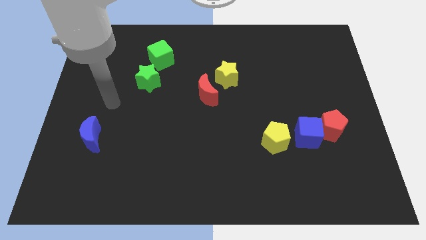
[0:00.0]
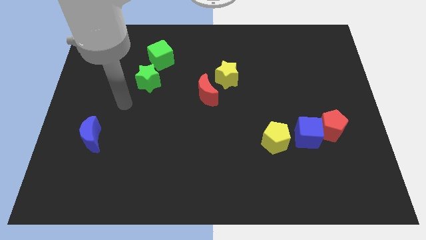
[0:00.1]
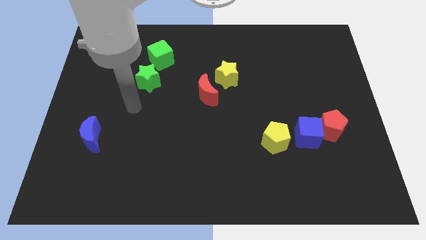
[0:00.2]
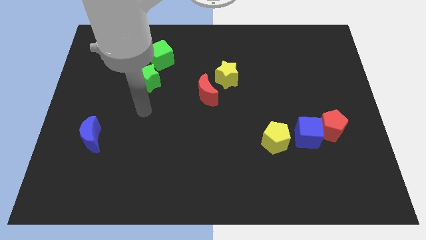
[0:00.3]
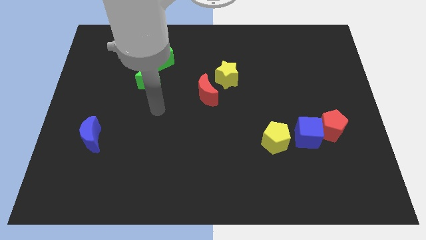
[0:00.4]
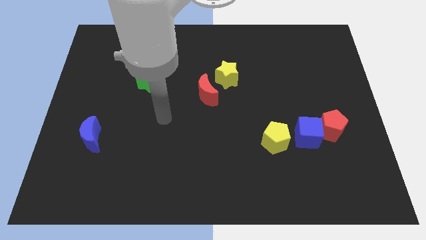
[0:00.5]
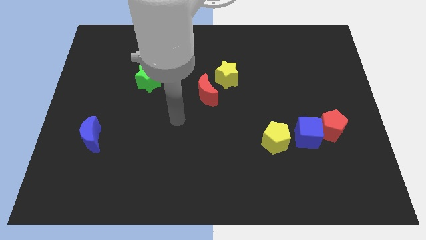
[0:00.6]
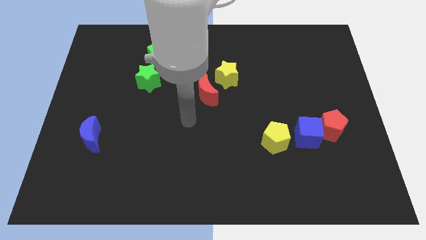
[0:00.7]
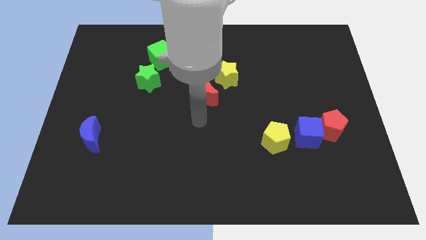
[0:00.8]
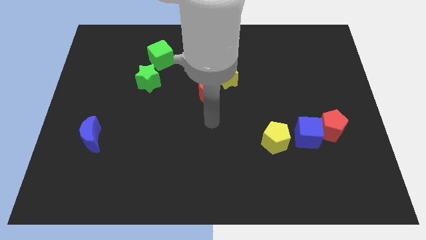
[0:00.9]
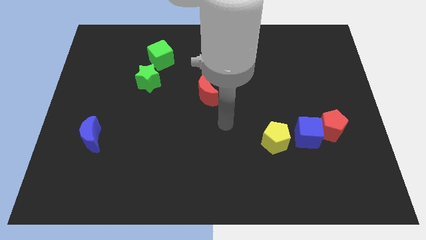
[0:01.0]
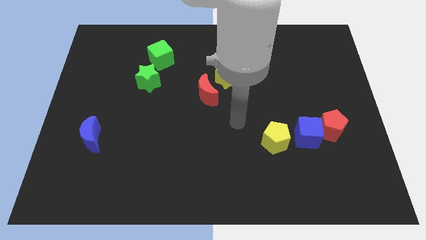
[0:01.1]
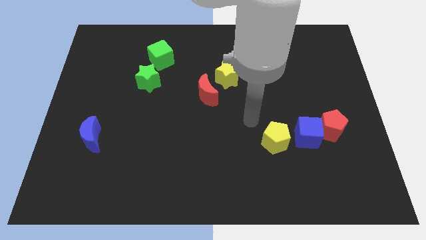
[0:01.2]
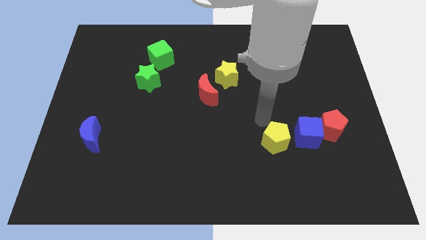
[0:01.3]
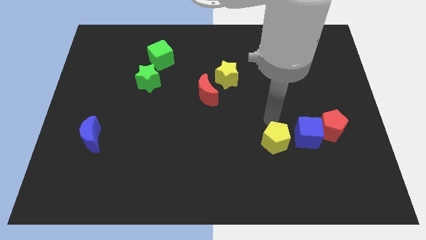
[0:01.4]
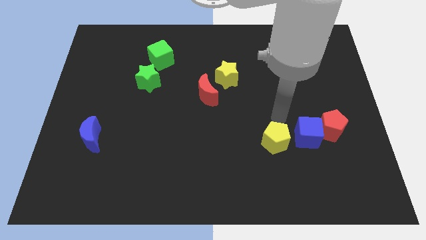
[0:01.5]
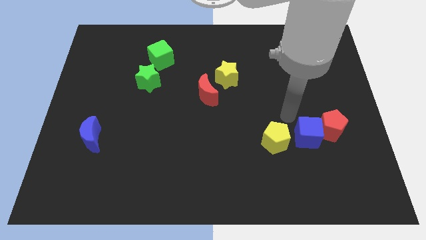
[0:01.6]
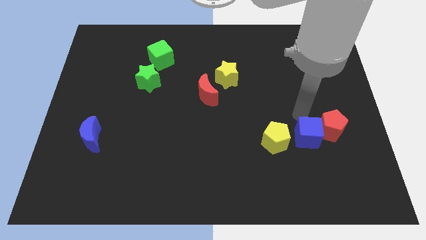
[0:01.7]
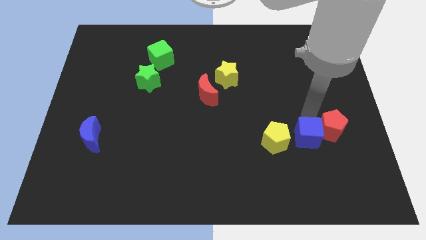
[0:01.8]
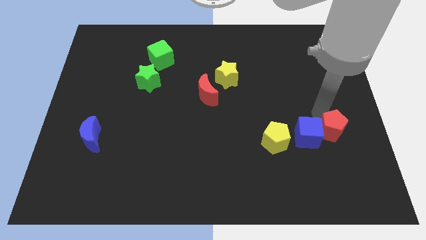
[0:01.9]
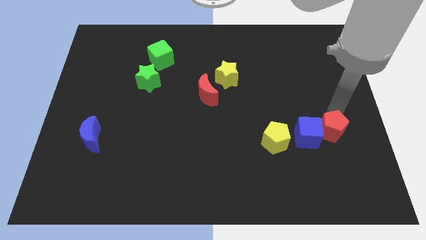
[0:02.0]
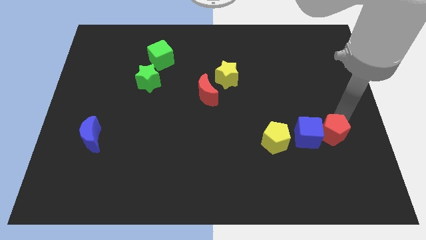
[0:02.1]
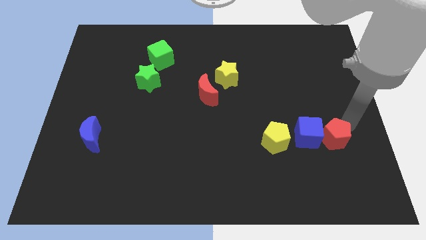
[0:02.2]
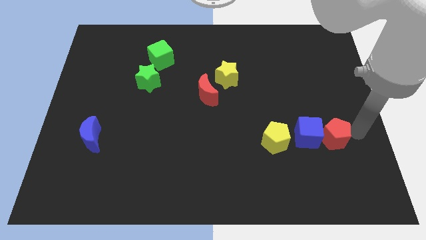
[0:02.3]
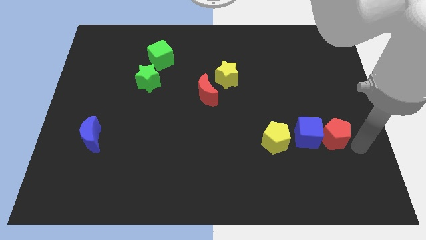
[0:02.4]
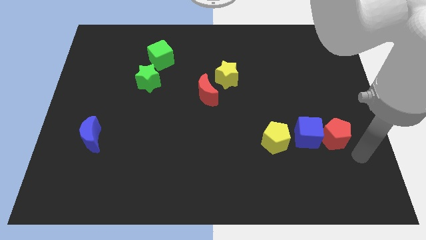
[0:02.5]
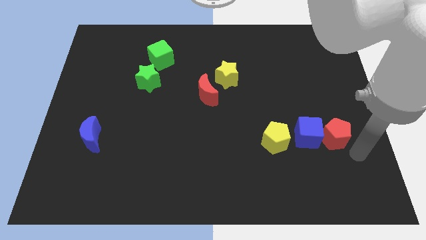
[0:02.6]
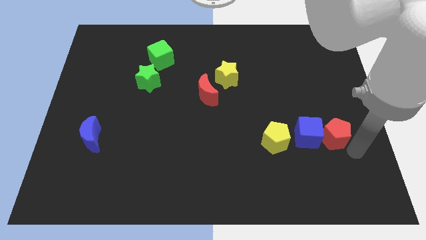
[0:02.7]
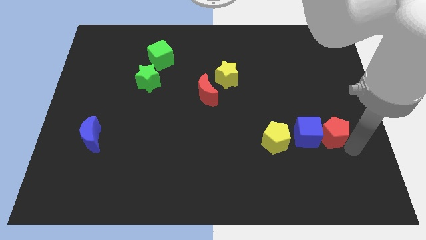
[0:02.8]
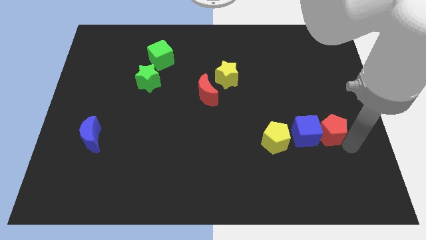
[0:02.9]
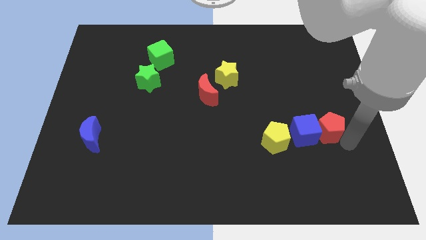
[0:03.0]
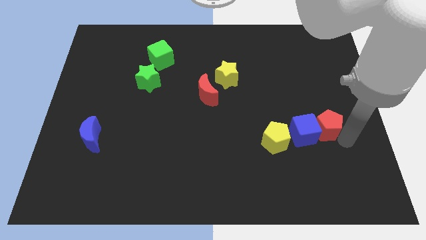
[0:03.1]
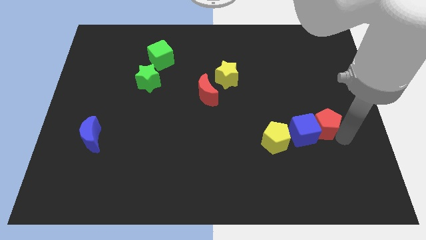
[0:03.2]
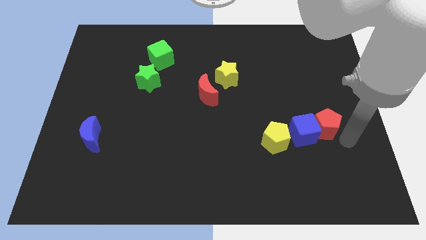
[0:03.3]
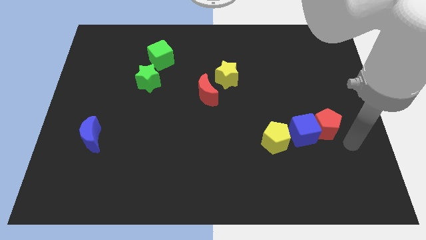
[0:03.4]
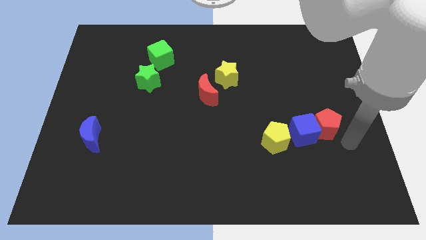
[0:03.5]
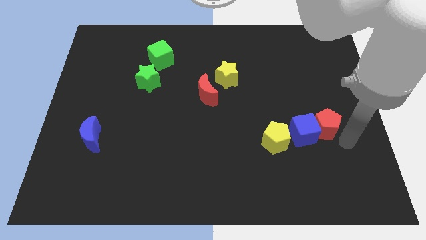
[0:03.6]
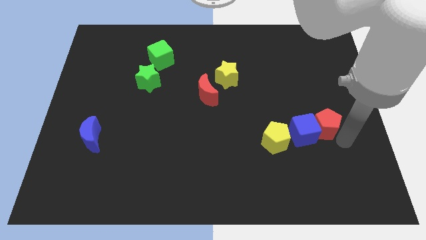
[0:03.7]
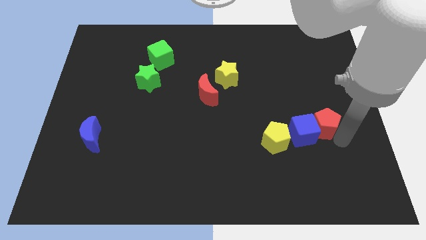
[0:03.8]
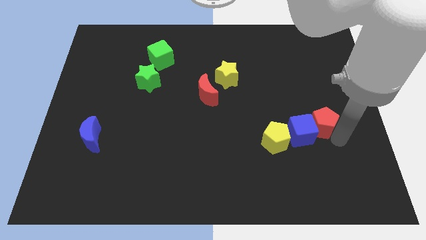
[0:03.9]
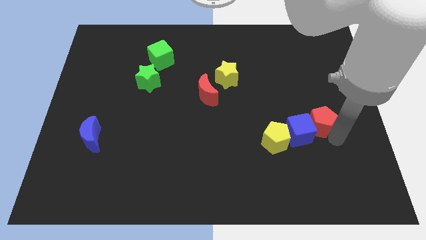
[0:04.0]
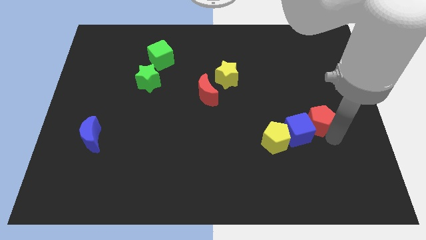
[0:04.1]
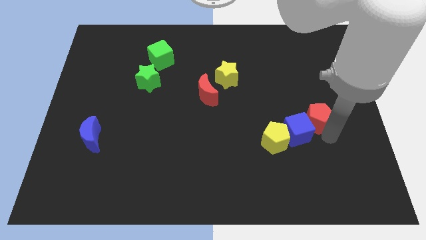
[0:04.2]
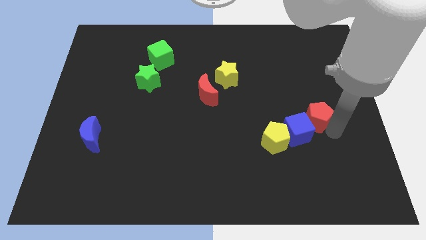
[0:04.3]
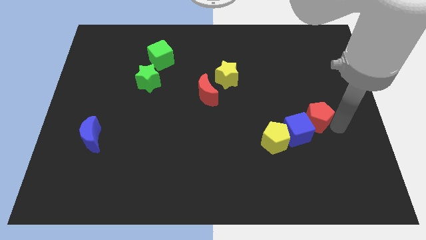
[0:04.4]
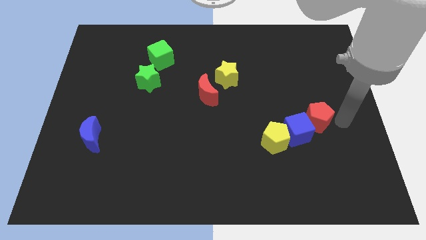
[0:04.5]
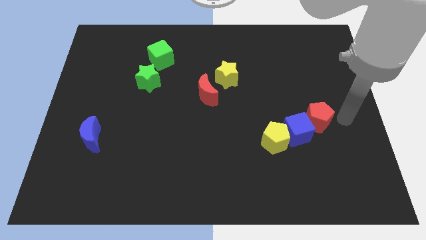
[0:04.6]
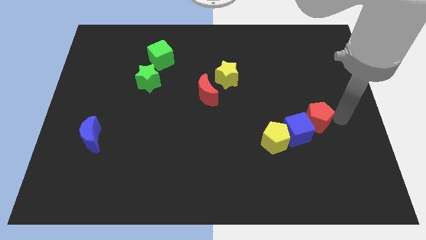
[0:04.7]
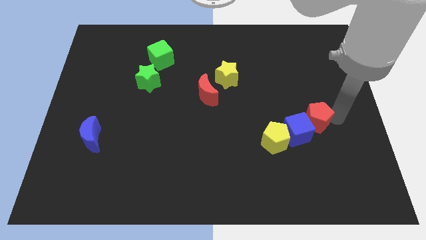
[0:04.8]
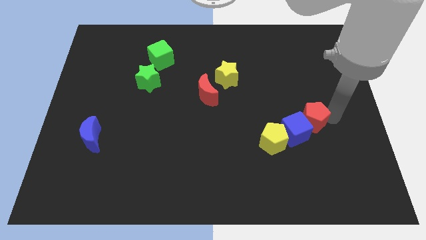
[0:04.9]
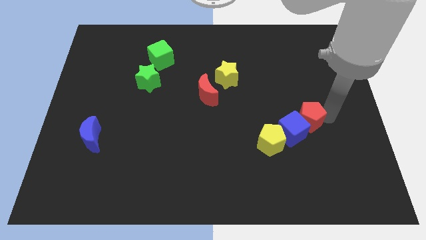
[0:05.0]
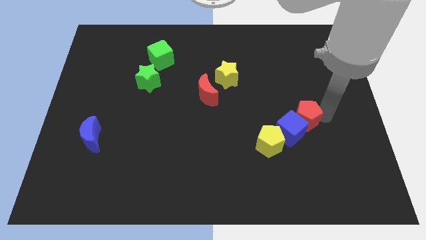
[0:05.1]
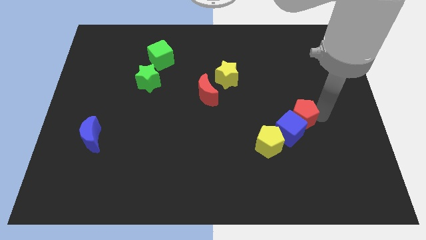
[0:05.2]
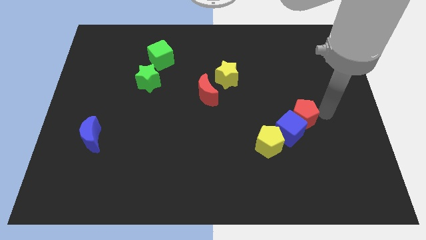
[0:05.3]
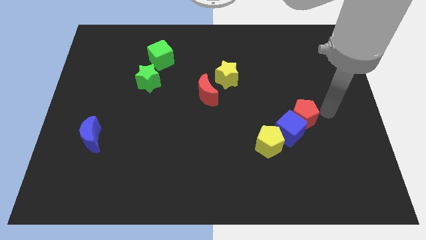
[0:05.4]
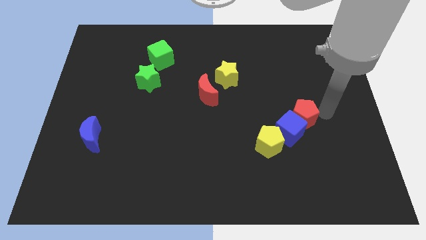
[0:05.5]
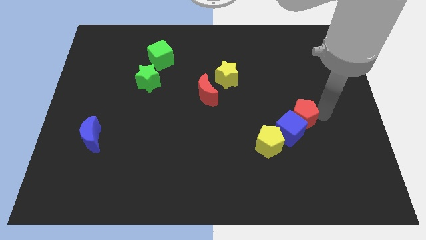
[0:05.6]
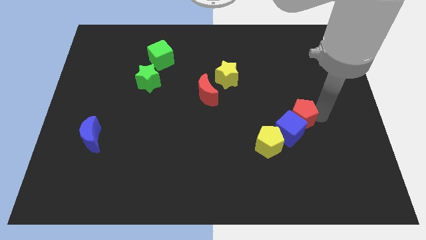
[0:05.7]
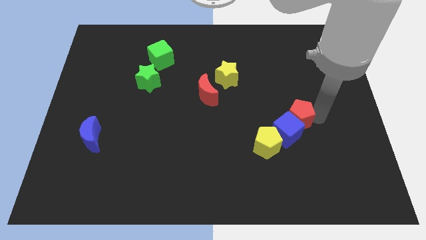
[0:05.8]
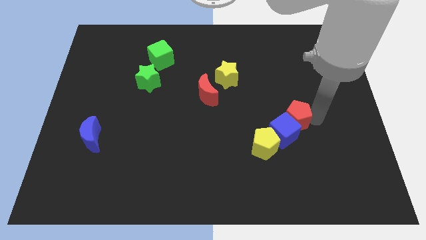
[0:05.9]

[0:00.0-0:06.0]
slightly slide the red pentagon left

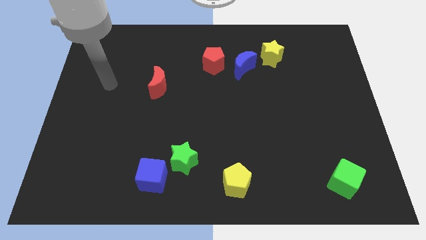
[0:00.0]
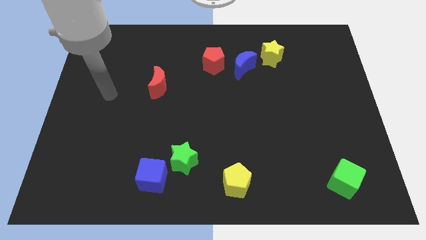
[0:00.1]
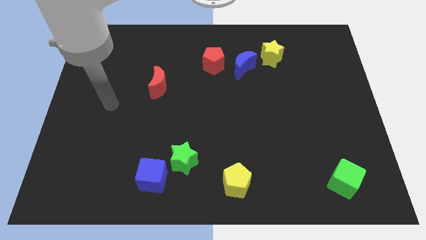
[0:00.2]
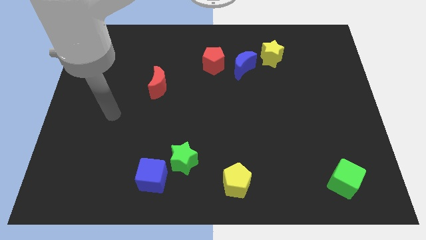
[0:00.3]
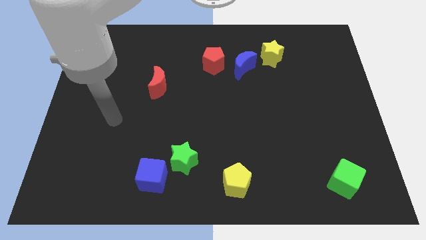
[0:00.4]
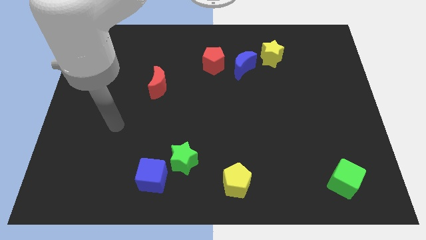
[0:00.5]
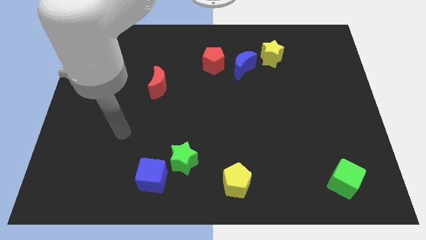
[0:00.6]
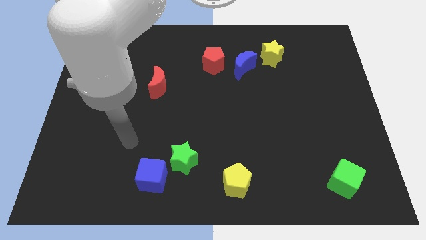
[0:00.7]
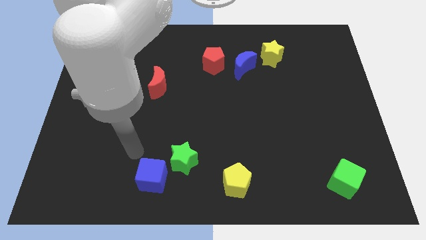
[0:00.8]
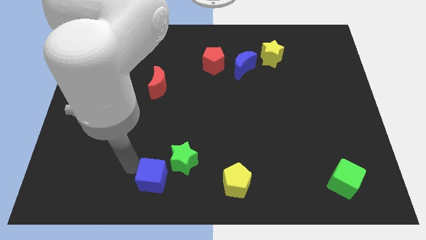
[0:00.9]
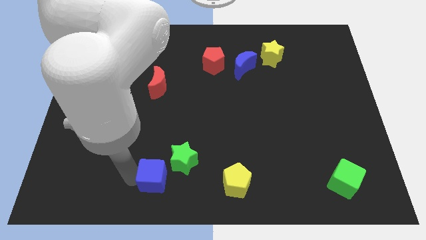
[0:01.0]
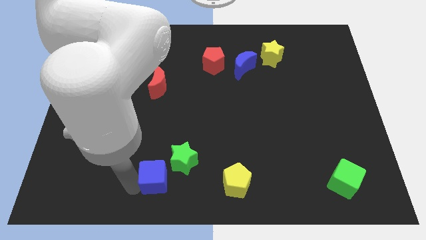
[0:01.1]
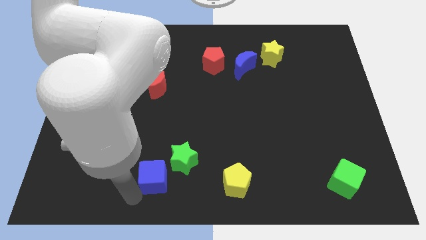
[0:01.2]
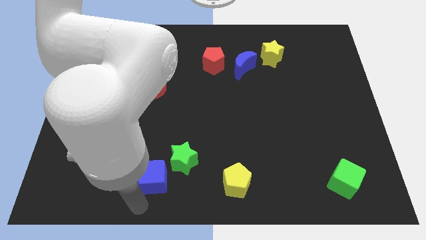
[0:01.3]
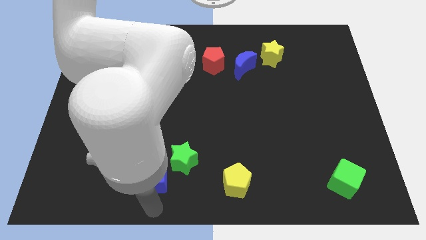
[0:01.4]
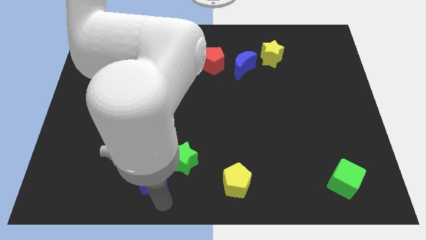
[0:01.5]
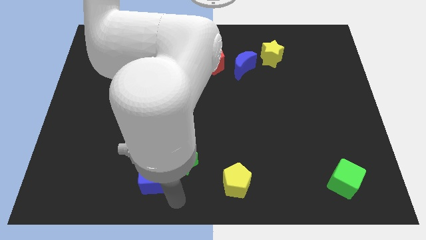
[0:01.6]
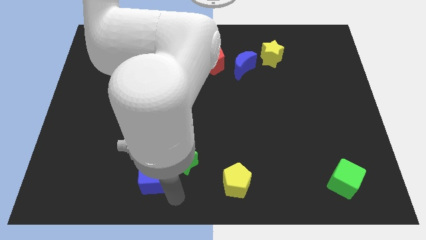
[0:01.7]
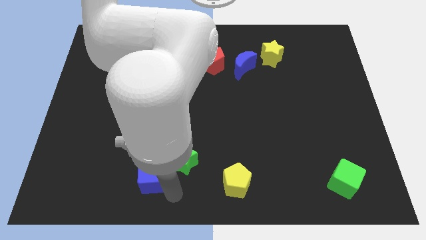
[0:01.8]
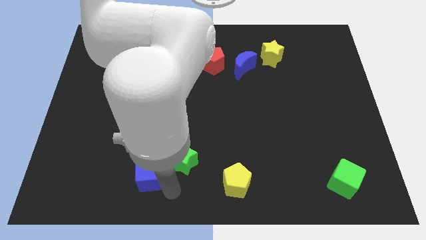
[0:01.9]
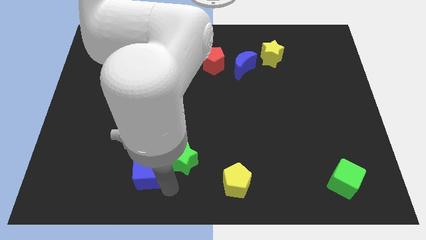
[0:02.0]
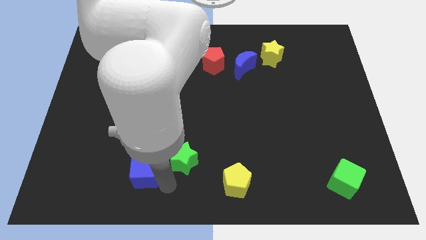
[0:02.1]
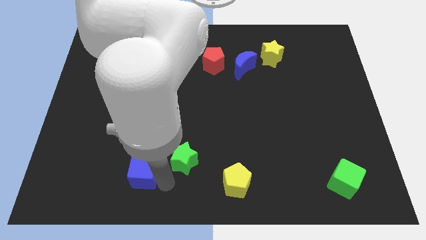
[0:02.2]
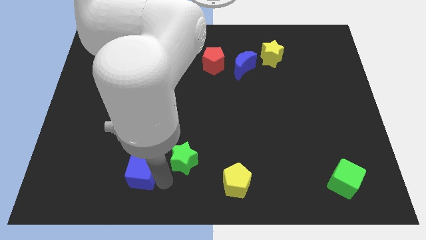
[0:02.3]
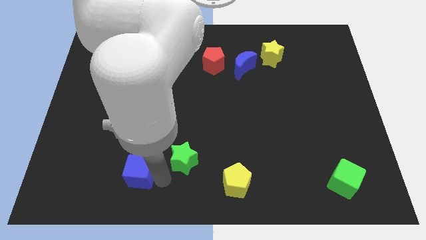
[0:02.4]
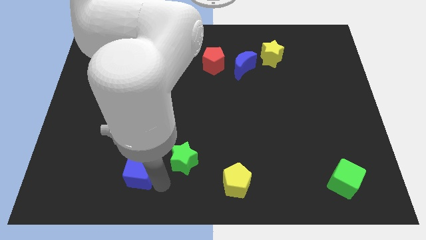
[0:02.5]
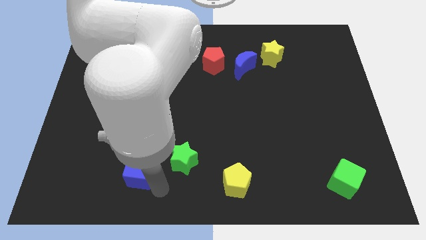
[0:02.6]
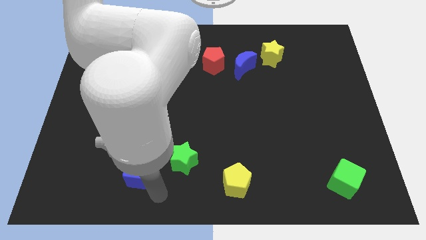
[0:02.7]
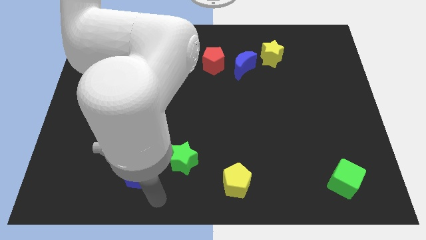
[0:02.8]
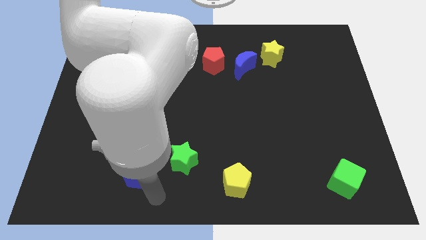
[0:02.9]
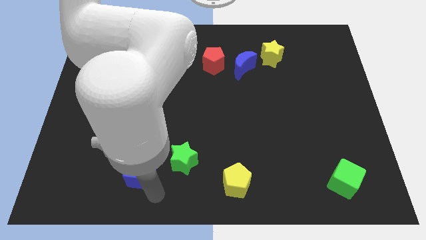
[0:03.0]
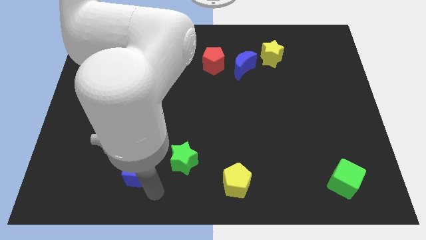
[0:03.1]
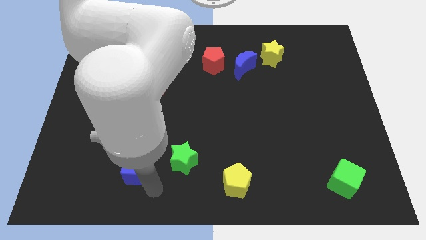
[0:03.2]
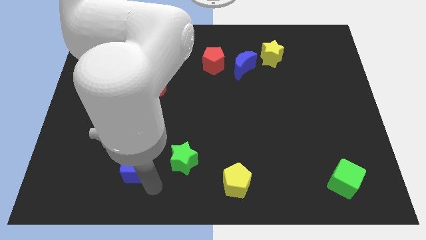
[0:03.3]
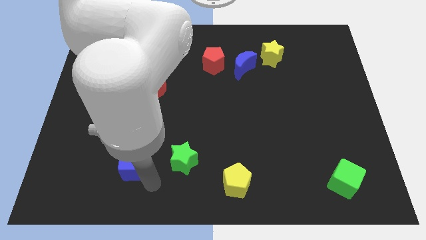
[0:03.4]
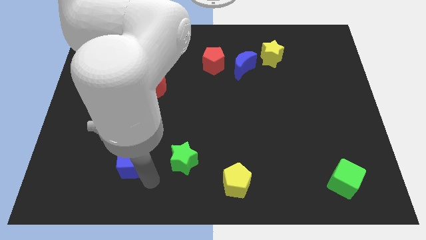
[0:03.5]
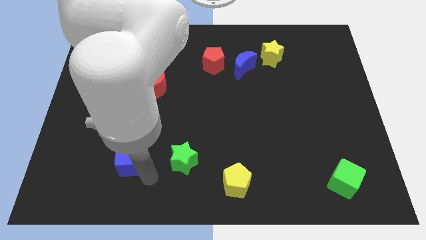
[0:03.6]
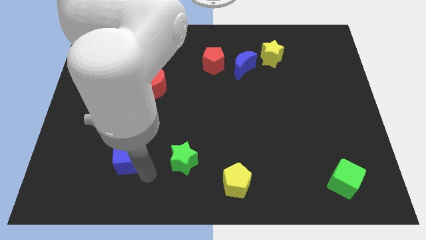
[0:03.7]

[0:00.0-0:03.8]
push the blue cube slightly diagonally upwards and left
